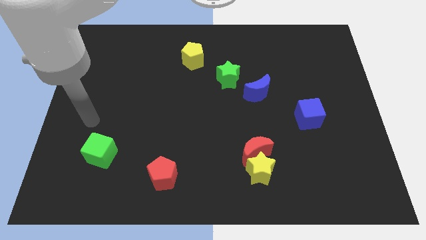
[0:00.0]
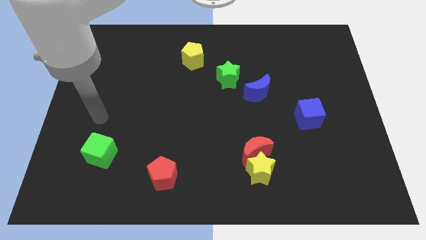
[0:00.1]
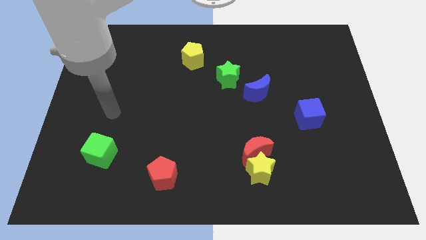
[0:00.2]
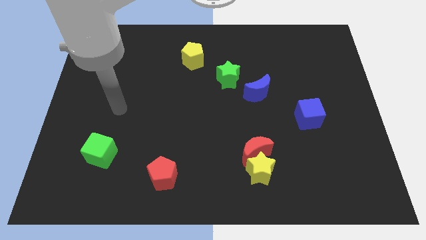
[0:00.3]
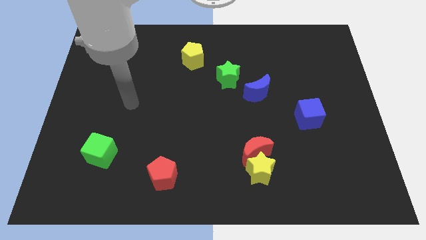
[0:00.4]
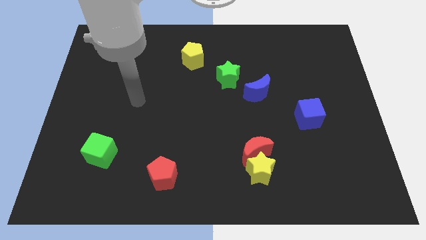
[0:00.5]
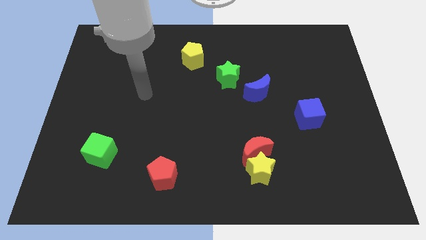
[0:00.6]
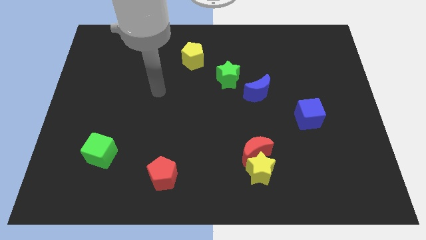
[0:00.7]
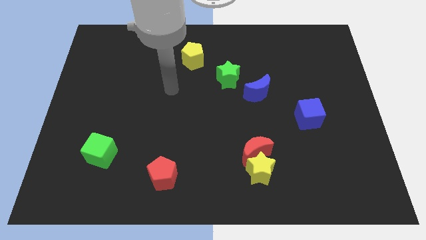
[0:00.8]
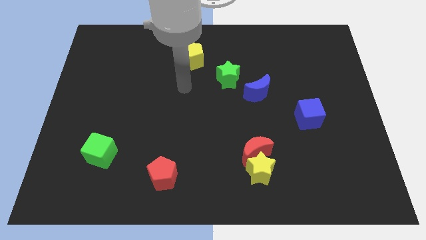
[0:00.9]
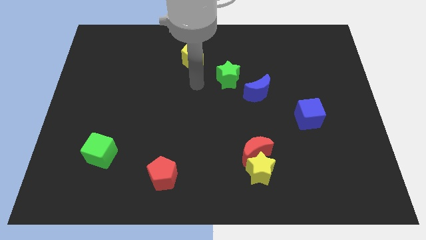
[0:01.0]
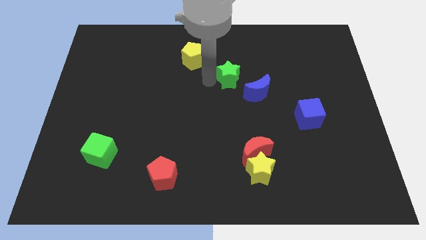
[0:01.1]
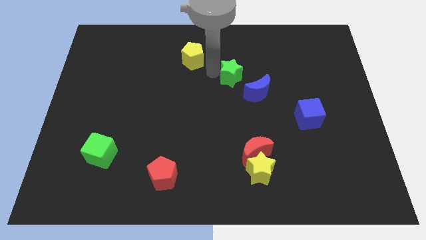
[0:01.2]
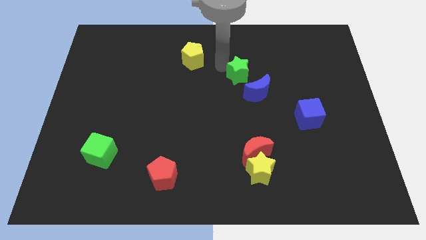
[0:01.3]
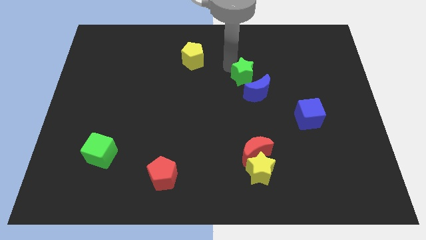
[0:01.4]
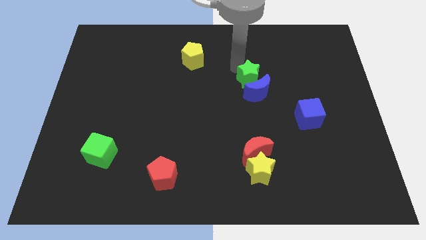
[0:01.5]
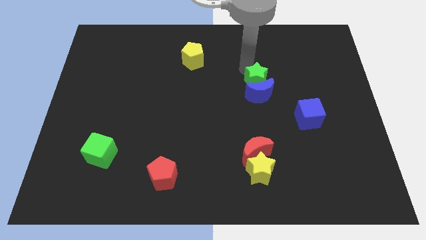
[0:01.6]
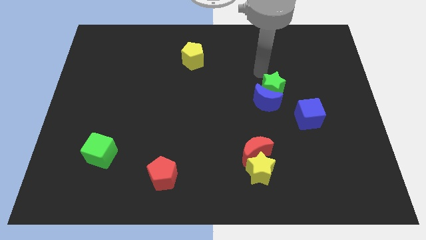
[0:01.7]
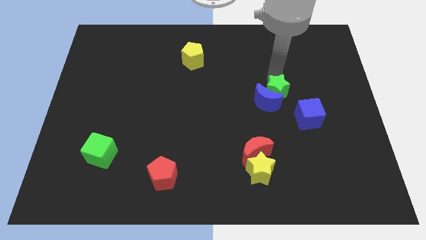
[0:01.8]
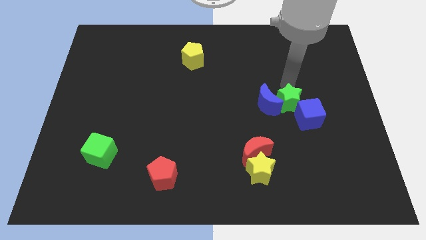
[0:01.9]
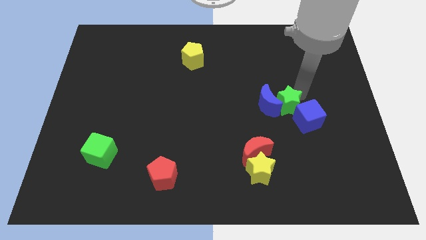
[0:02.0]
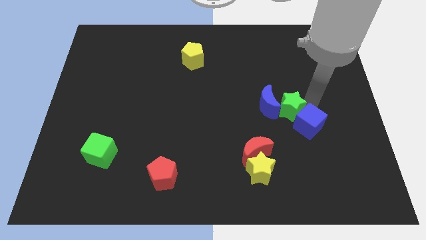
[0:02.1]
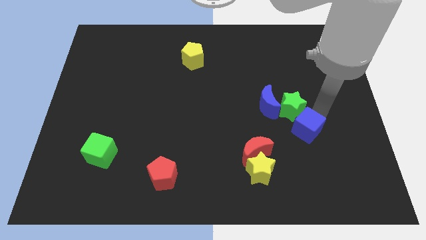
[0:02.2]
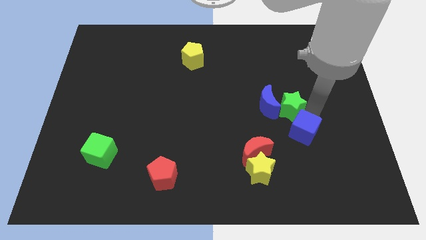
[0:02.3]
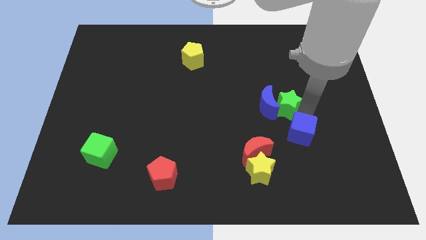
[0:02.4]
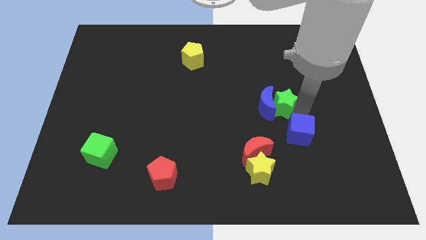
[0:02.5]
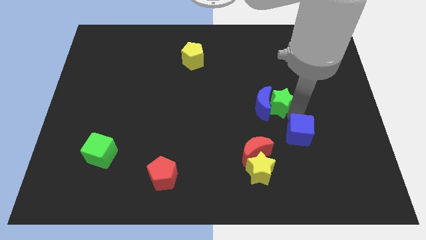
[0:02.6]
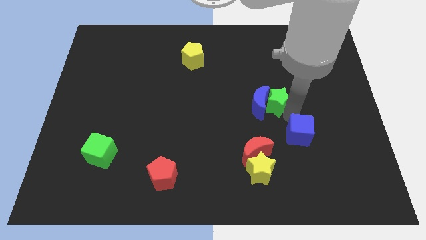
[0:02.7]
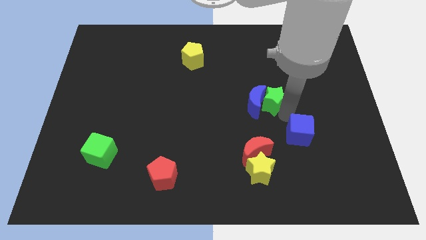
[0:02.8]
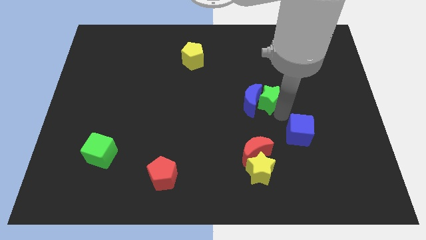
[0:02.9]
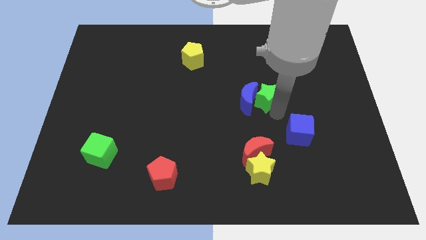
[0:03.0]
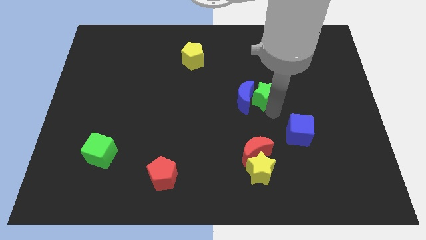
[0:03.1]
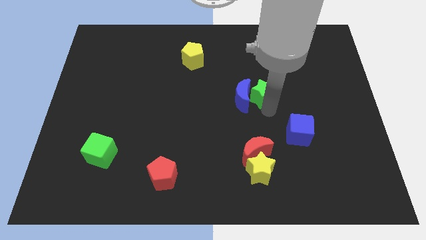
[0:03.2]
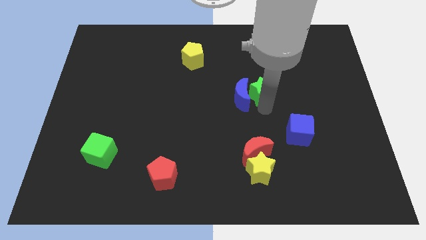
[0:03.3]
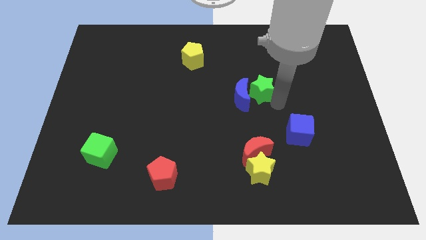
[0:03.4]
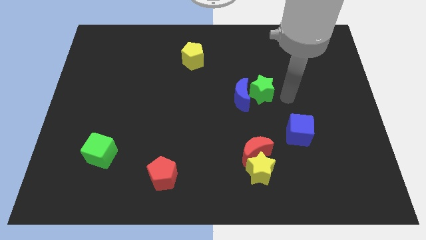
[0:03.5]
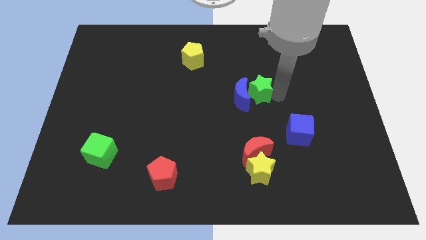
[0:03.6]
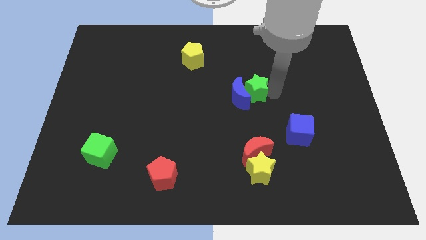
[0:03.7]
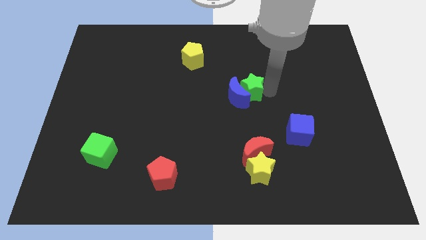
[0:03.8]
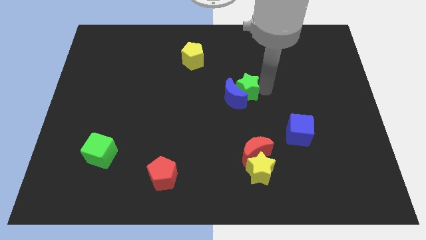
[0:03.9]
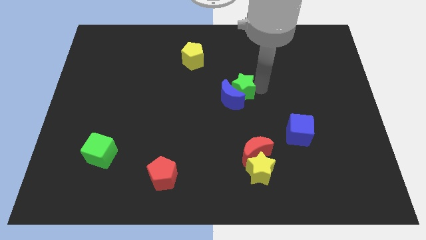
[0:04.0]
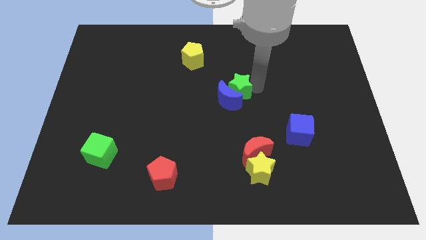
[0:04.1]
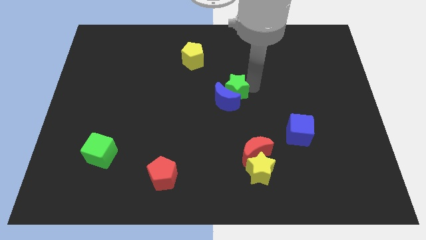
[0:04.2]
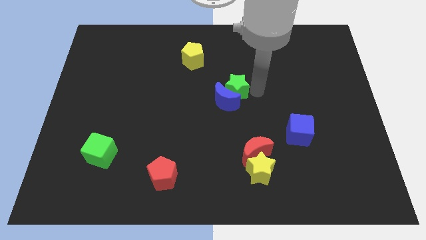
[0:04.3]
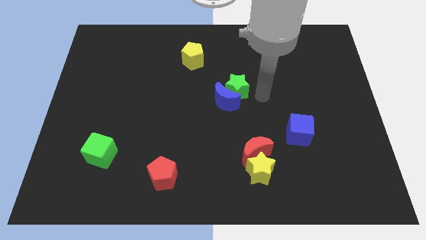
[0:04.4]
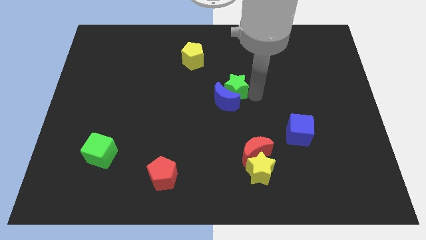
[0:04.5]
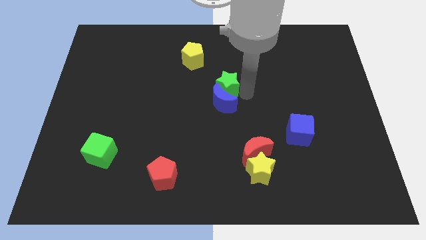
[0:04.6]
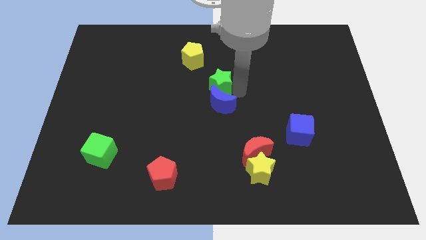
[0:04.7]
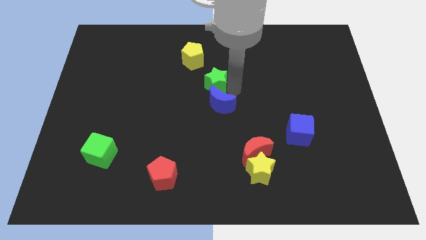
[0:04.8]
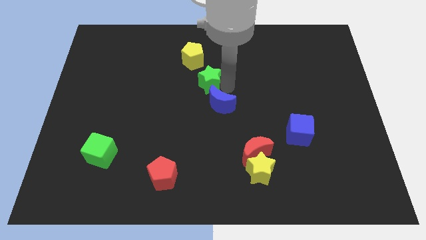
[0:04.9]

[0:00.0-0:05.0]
put the green star below the yellow pentagon

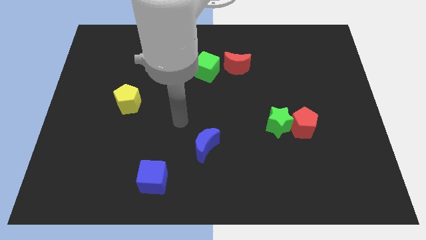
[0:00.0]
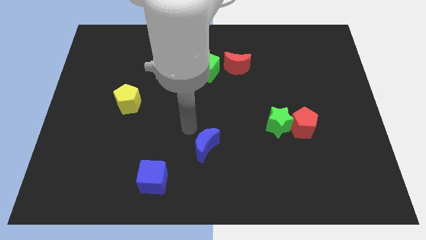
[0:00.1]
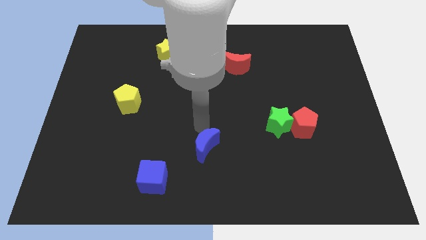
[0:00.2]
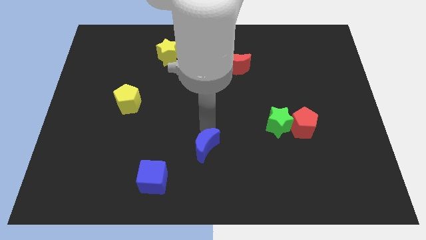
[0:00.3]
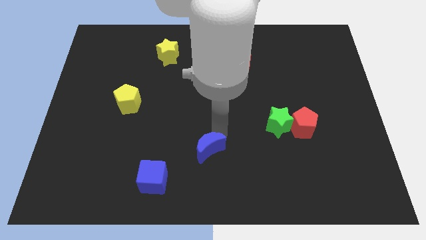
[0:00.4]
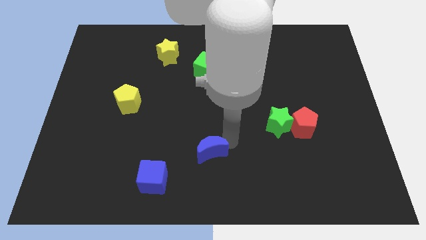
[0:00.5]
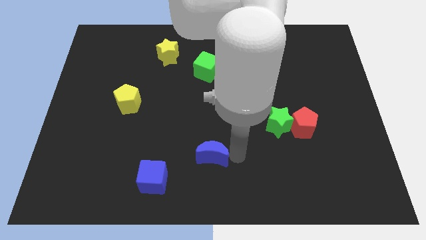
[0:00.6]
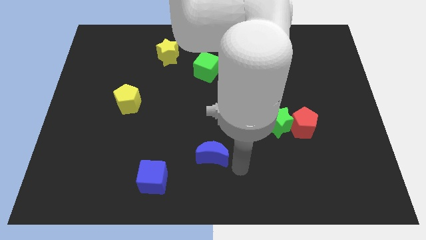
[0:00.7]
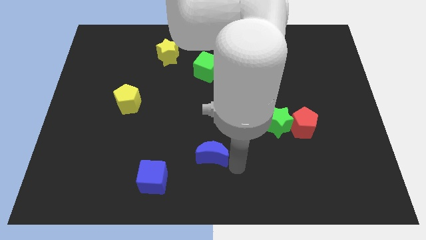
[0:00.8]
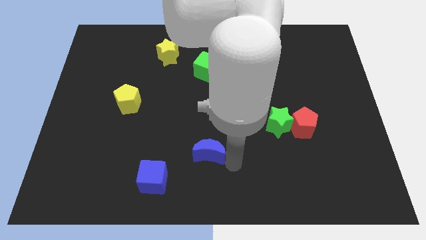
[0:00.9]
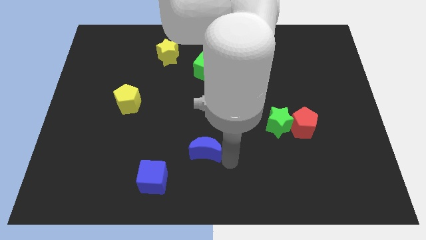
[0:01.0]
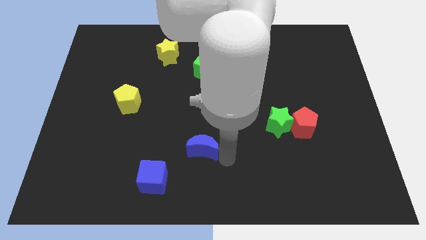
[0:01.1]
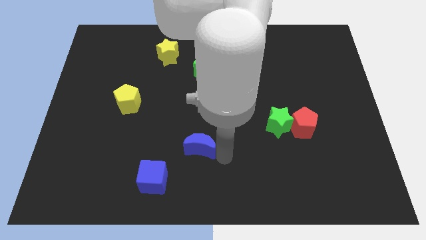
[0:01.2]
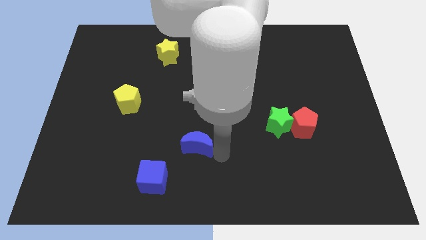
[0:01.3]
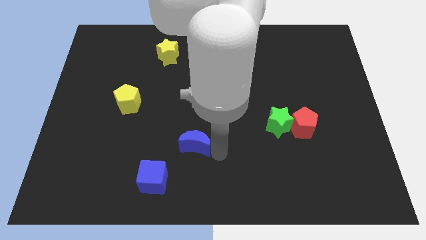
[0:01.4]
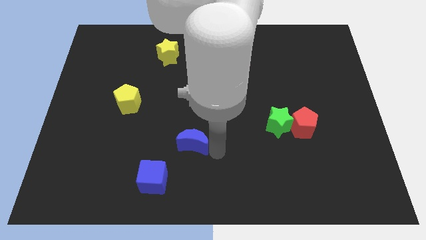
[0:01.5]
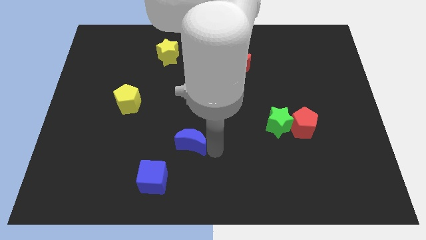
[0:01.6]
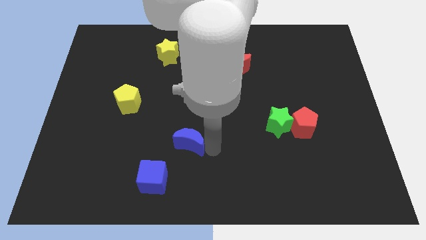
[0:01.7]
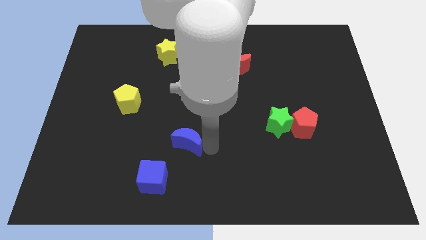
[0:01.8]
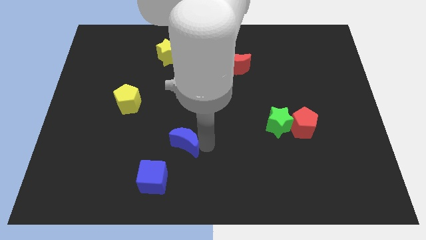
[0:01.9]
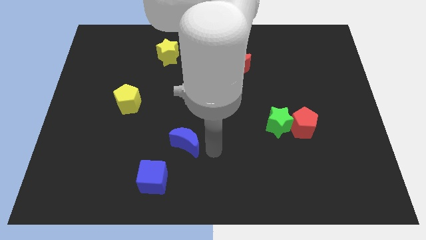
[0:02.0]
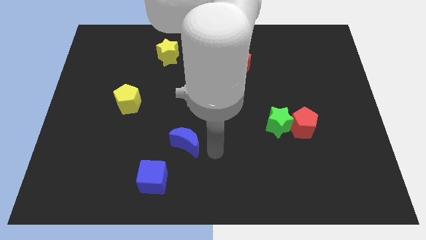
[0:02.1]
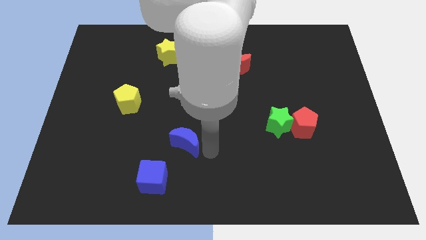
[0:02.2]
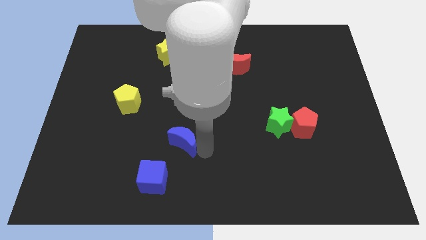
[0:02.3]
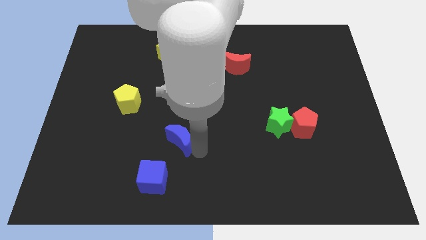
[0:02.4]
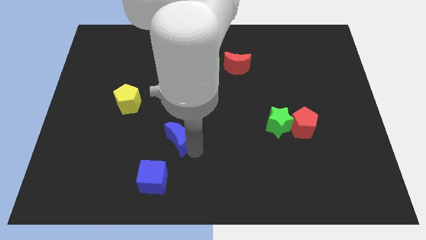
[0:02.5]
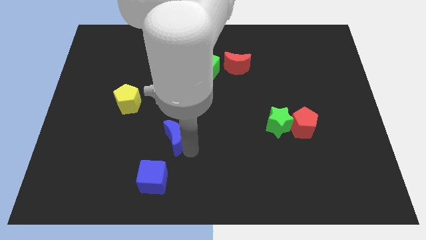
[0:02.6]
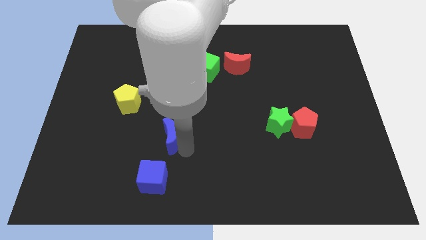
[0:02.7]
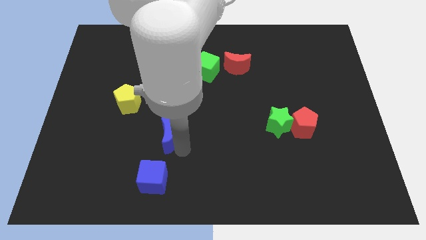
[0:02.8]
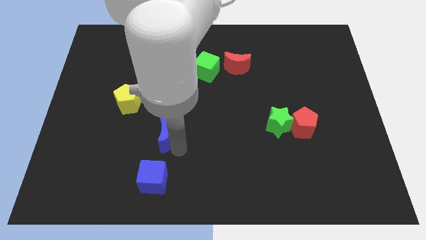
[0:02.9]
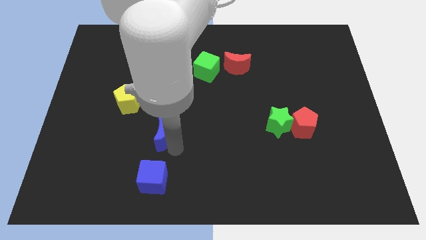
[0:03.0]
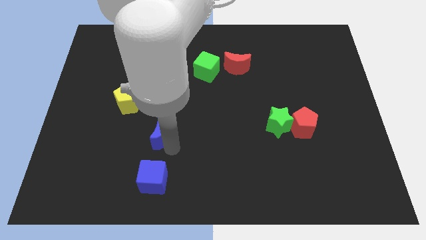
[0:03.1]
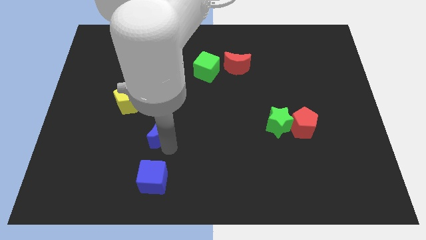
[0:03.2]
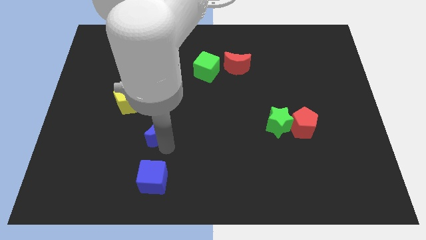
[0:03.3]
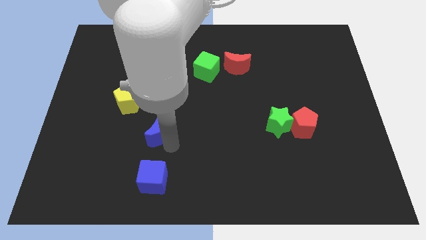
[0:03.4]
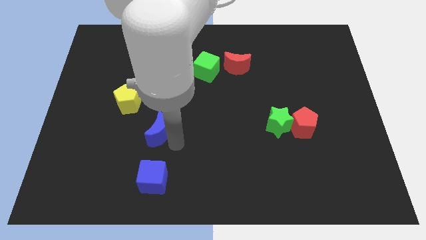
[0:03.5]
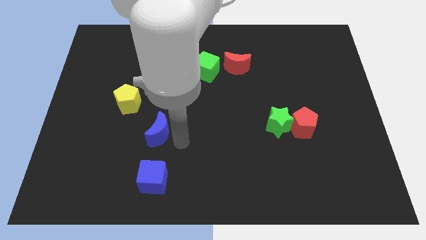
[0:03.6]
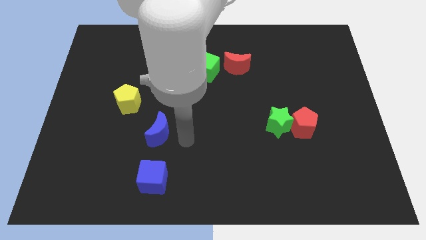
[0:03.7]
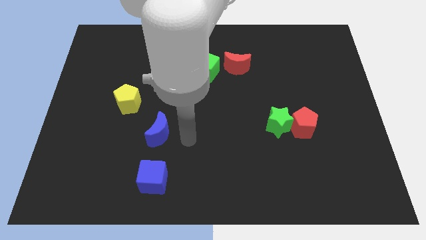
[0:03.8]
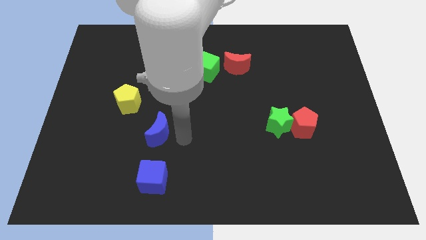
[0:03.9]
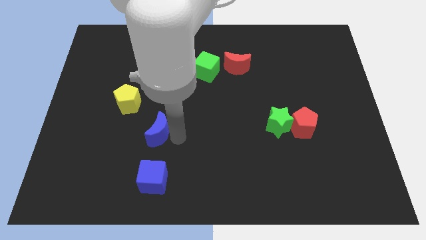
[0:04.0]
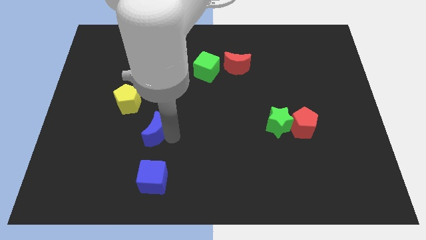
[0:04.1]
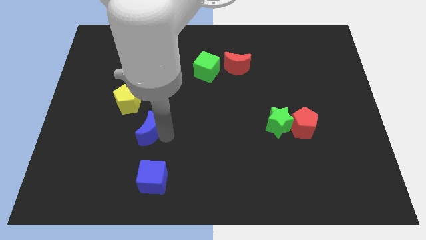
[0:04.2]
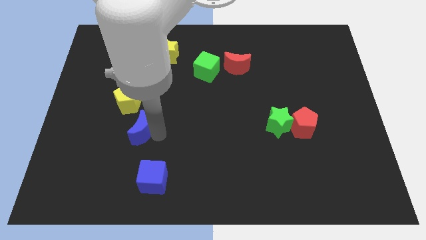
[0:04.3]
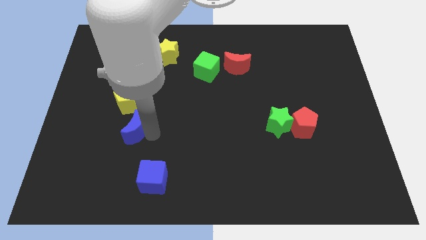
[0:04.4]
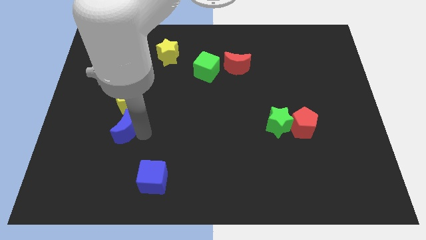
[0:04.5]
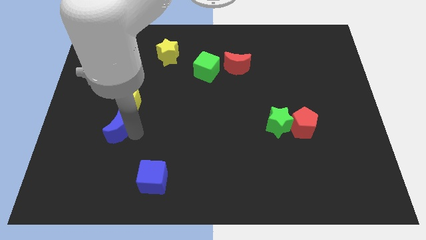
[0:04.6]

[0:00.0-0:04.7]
move the blue moon diagonally down and to the left of the yellow pentagon
